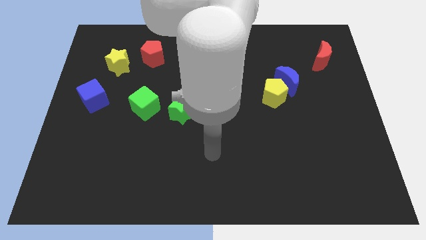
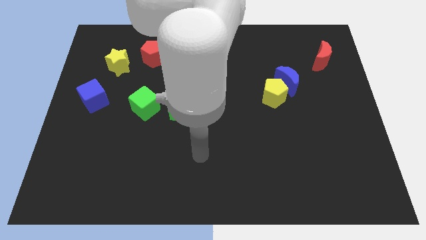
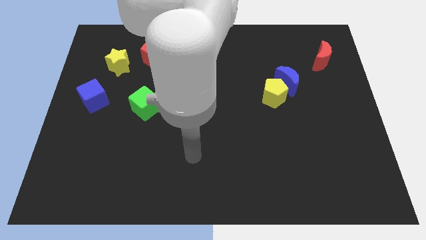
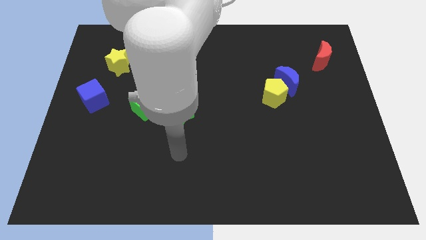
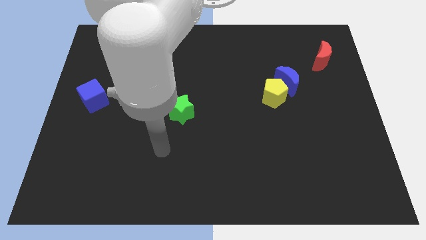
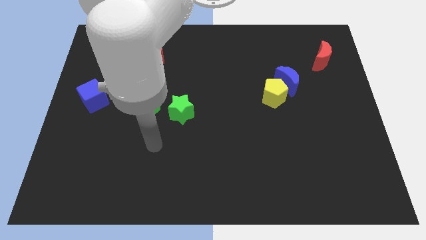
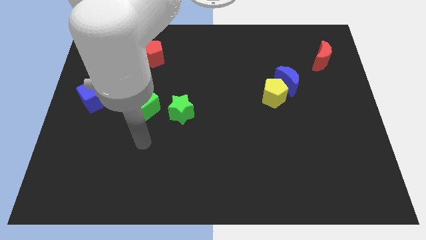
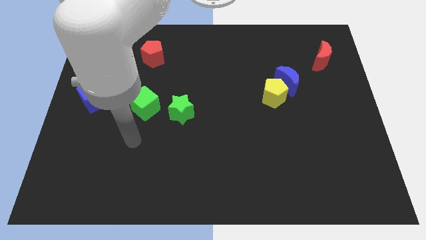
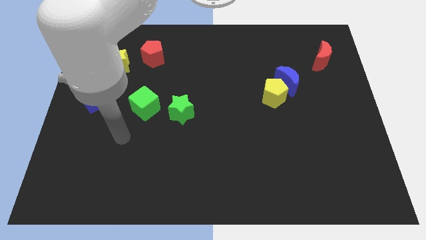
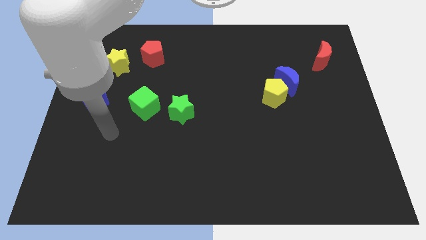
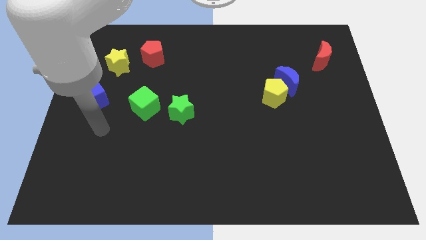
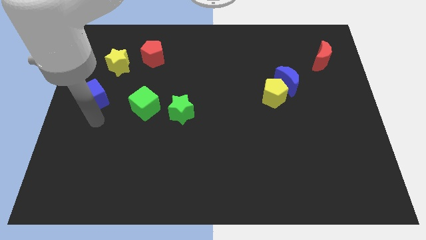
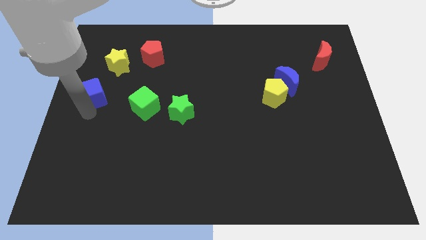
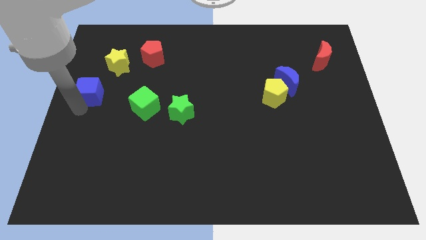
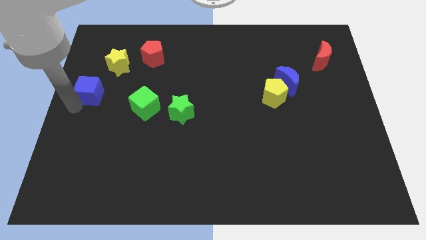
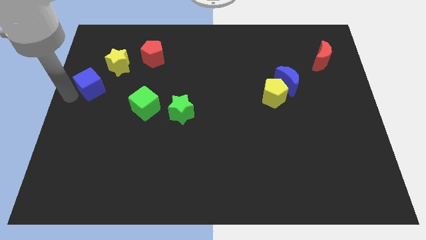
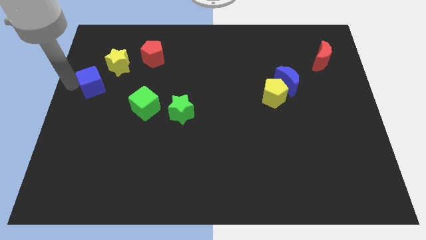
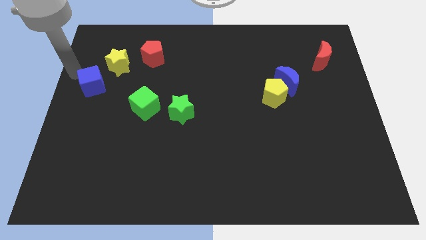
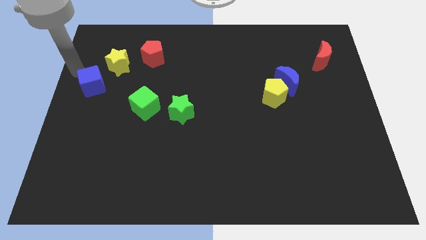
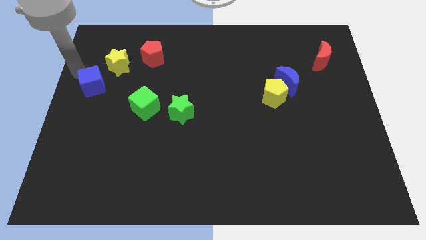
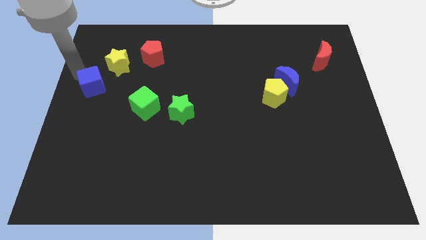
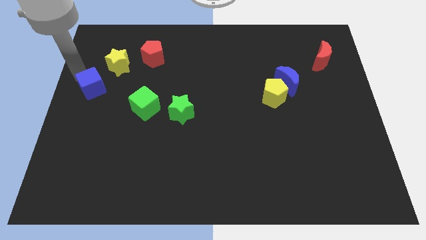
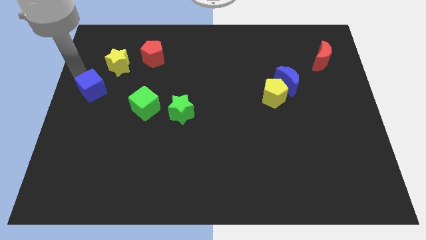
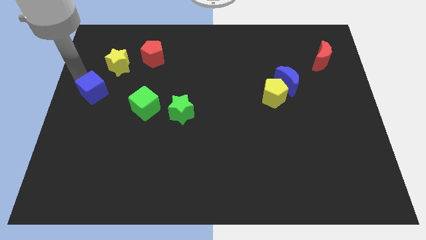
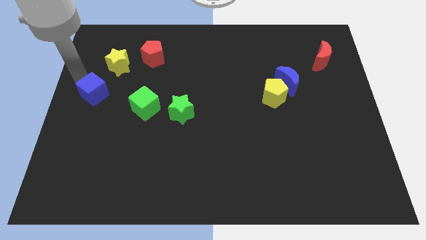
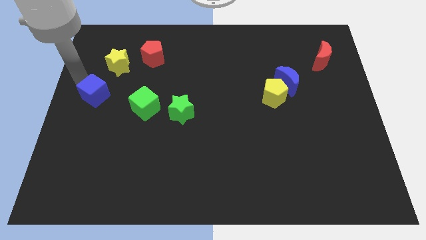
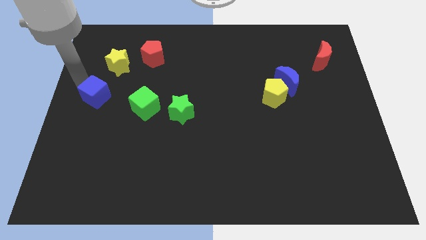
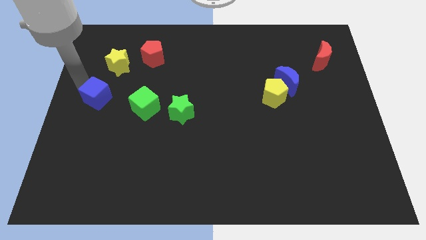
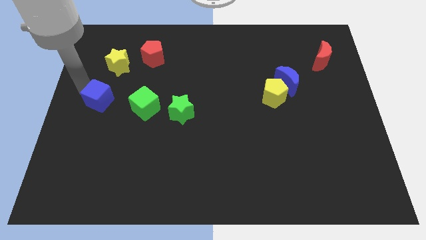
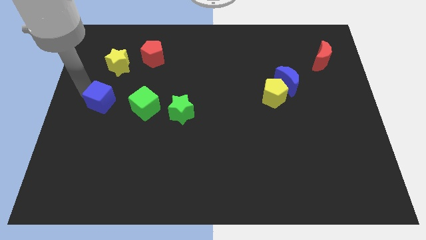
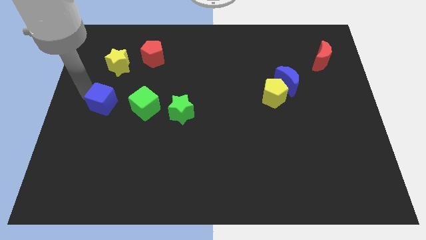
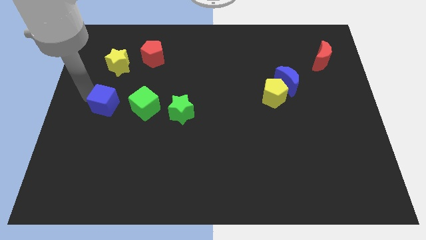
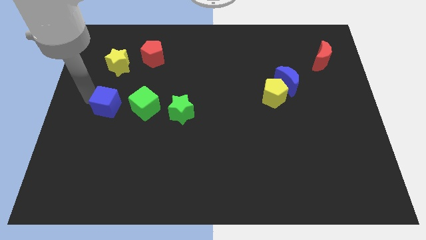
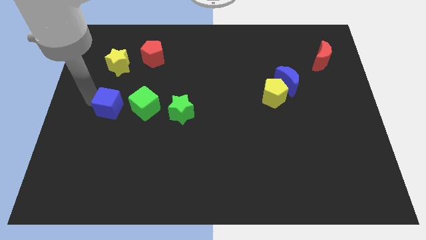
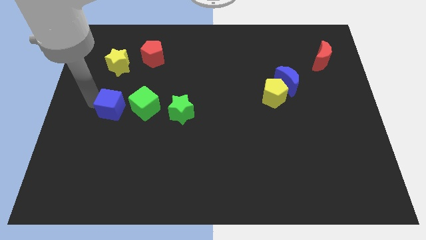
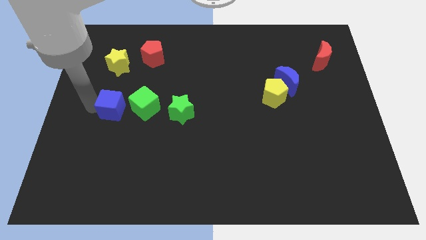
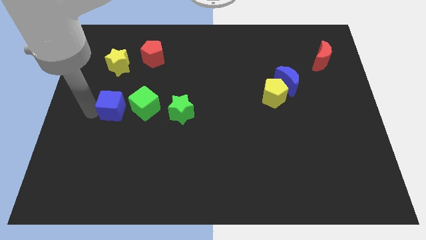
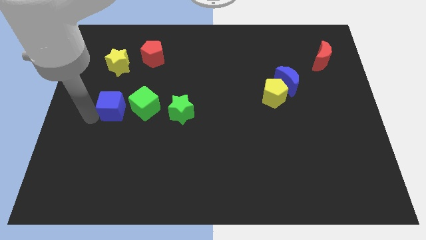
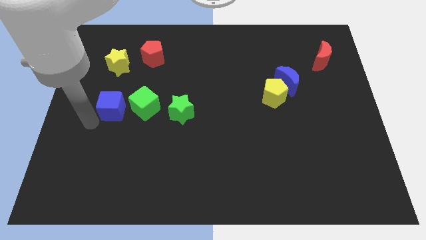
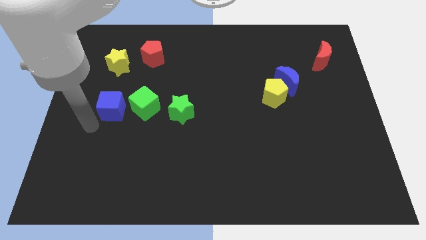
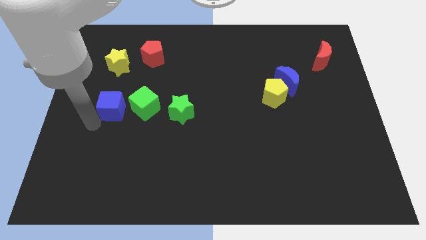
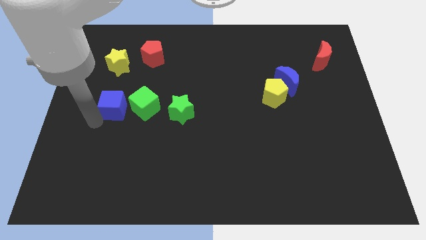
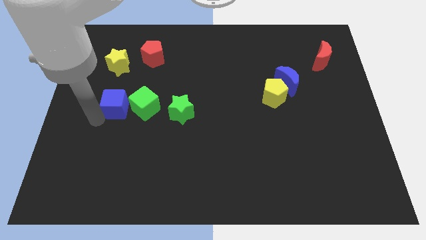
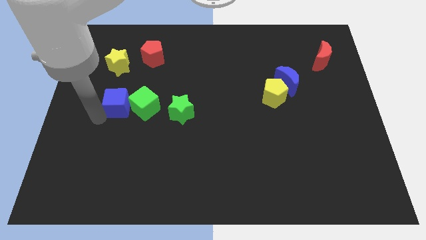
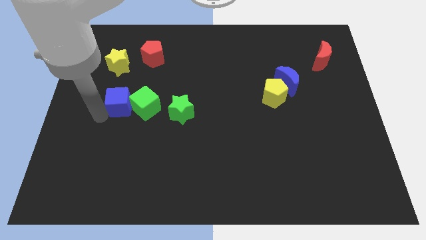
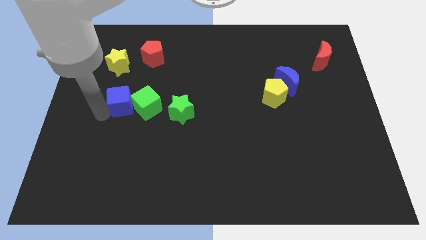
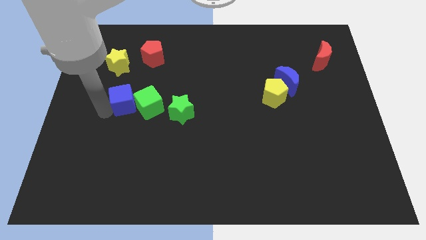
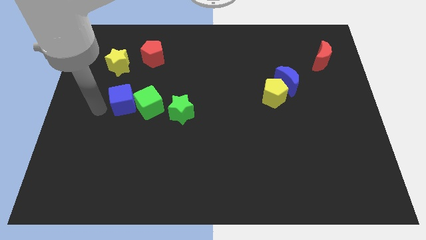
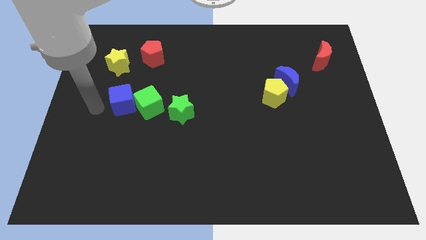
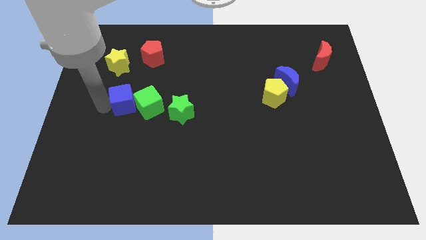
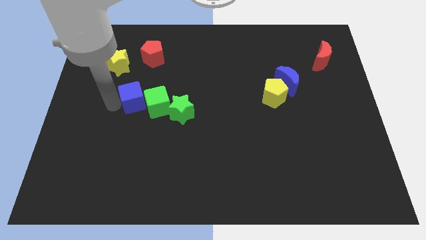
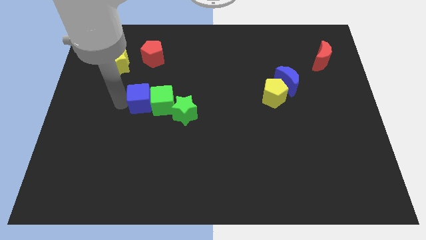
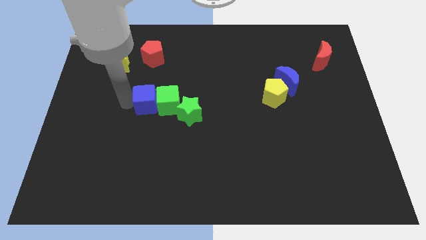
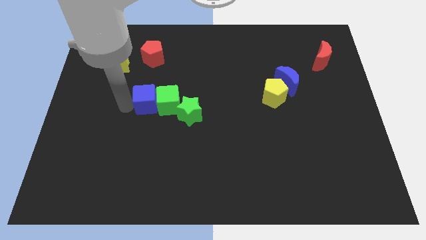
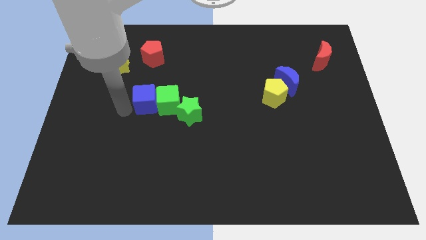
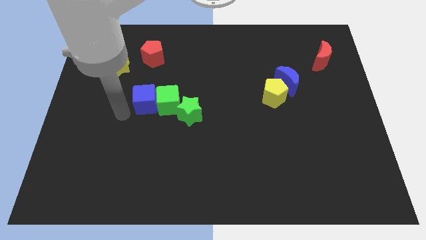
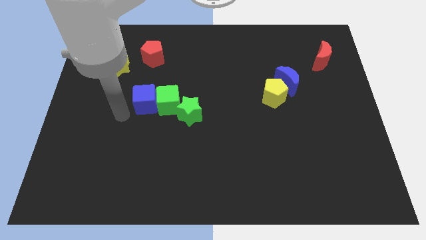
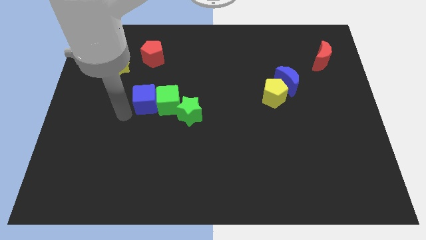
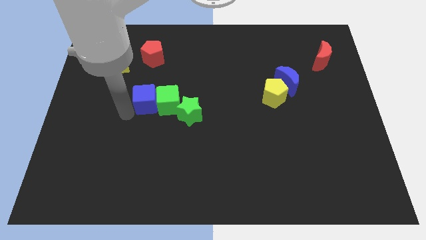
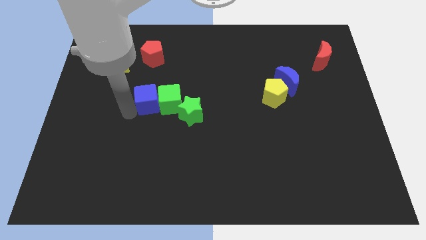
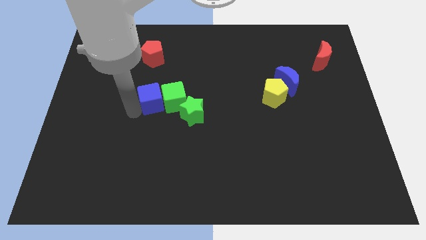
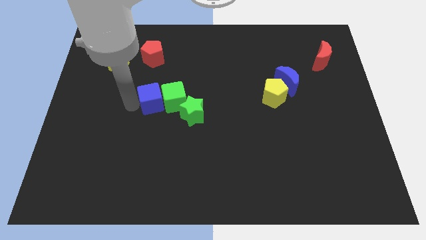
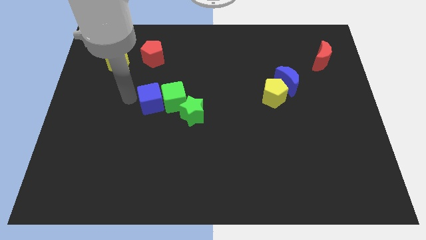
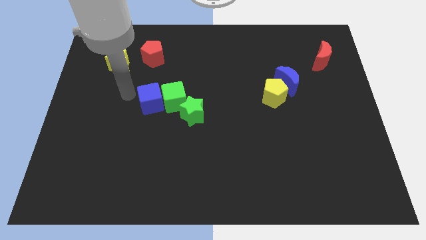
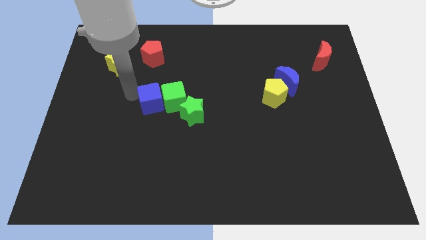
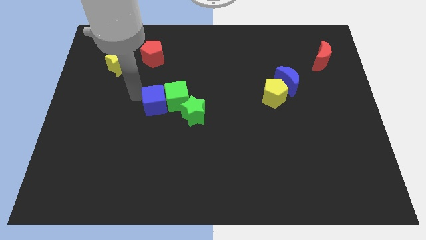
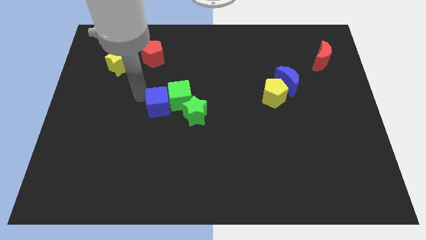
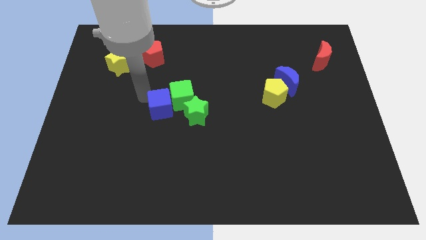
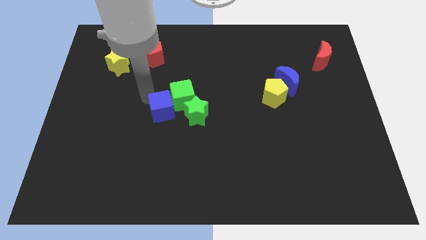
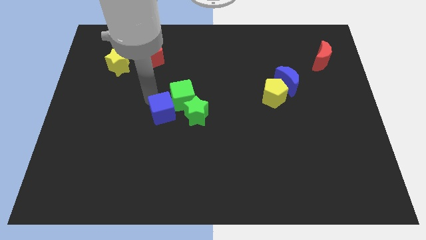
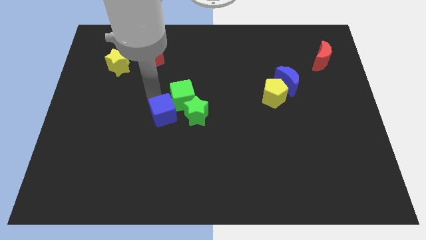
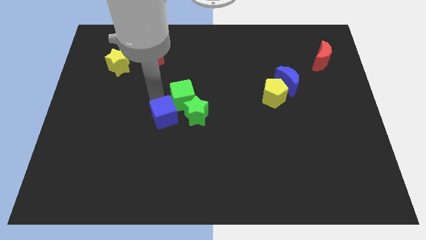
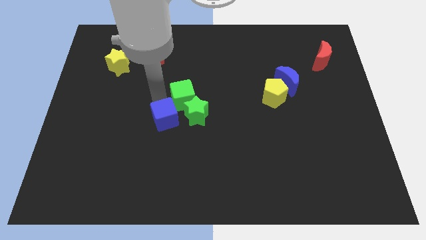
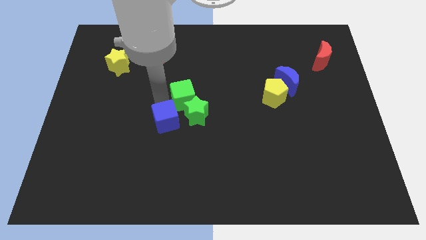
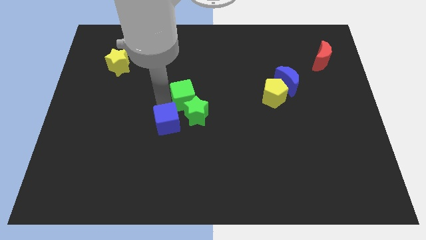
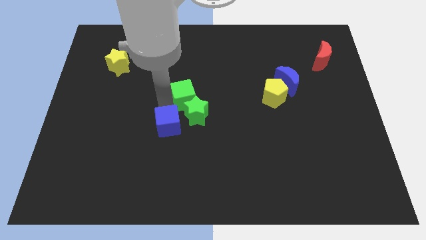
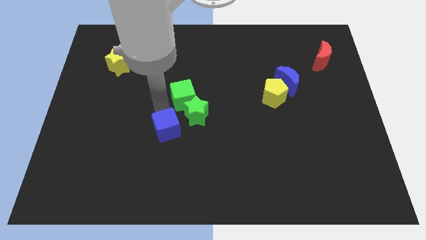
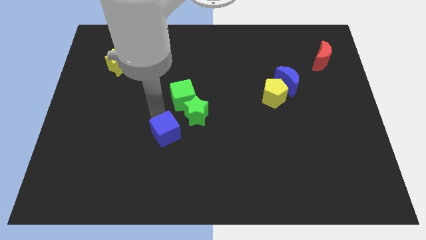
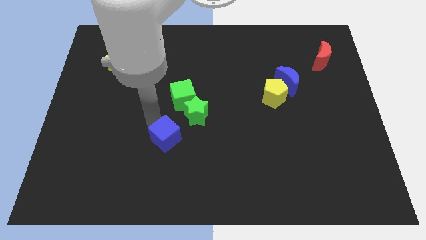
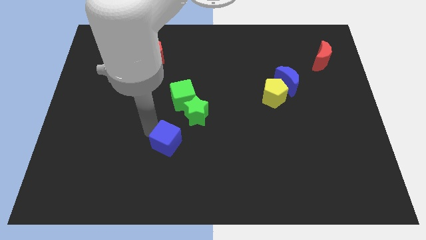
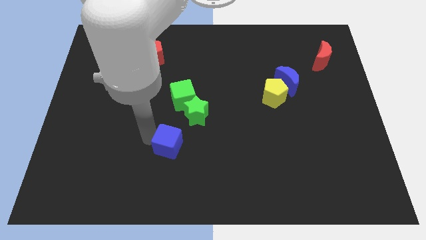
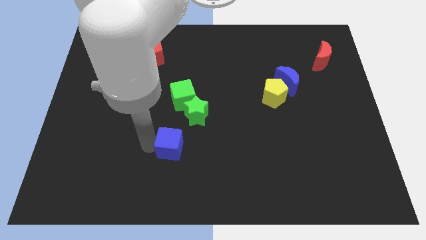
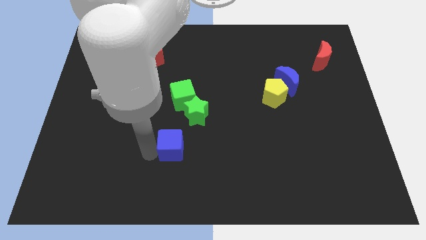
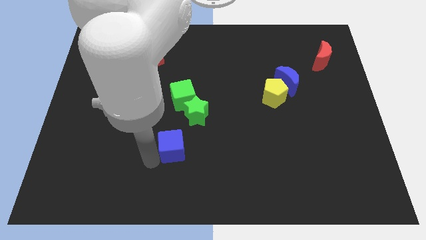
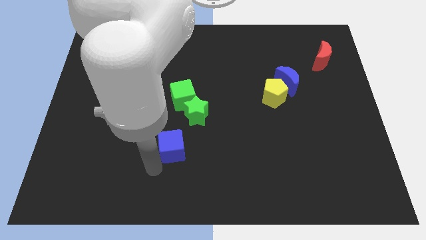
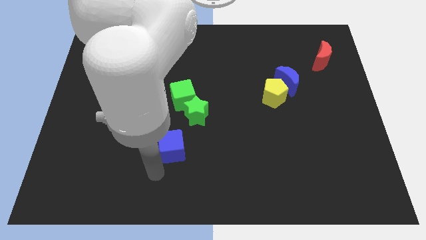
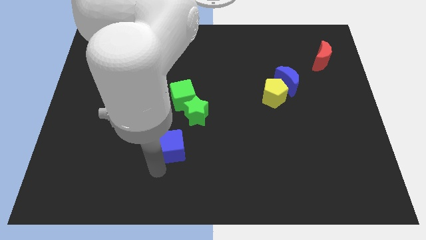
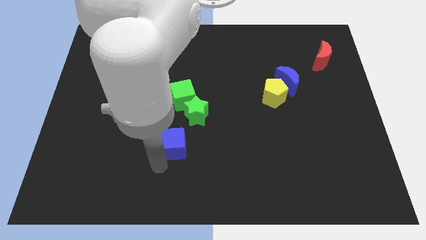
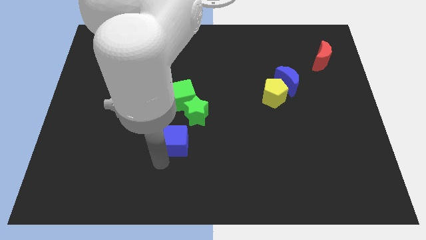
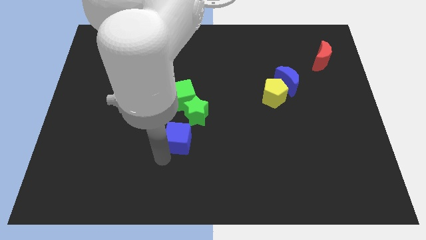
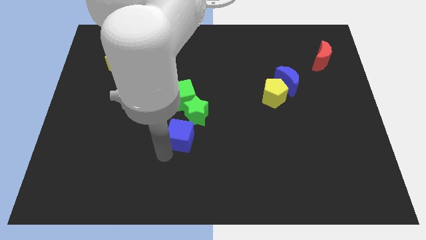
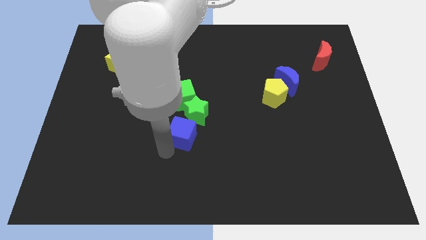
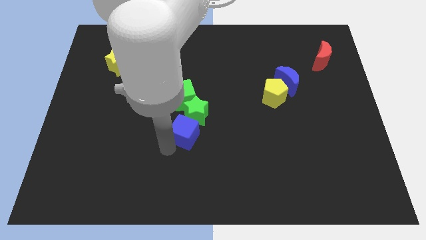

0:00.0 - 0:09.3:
move the blue cube close to the green star
